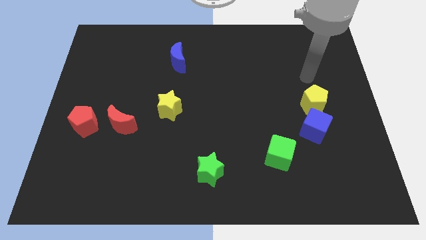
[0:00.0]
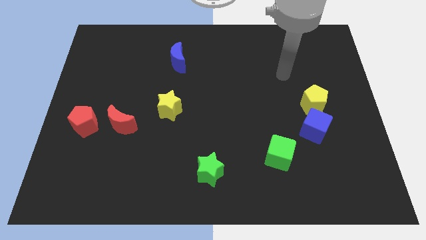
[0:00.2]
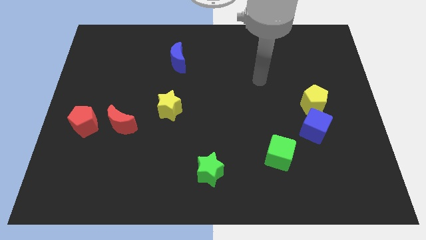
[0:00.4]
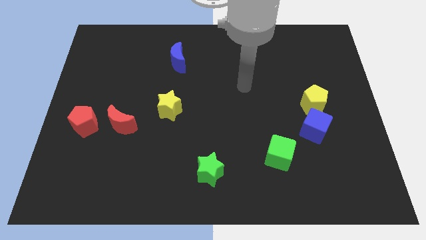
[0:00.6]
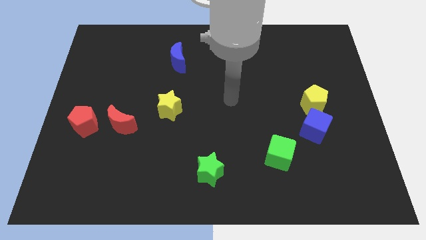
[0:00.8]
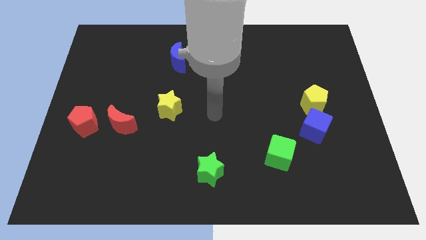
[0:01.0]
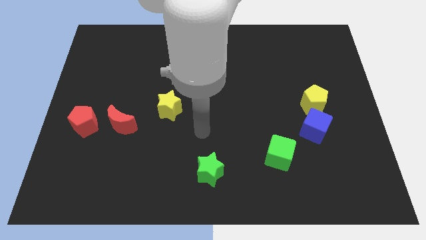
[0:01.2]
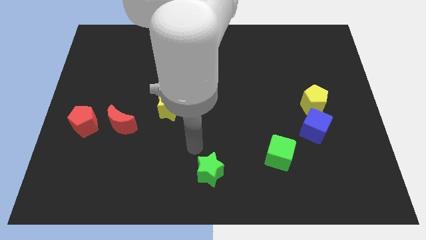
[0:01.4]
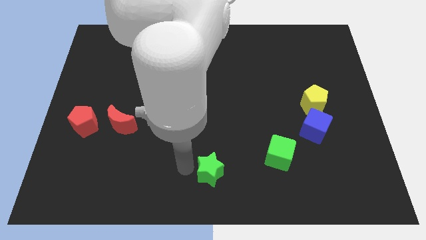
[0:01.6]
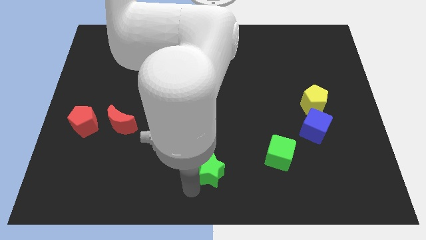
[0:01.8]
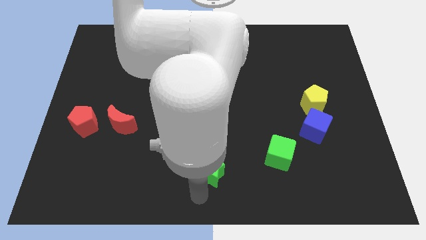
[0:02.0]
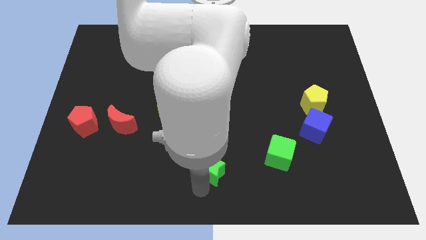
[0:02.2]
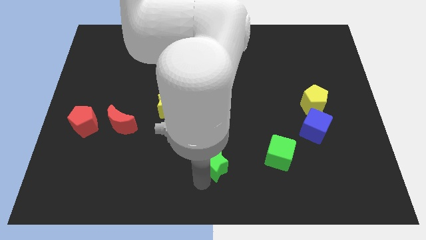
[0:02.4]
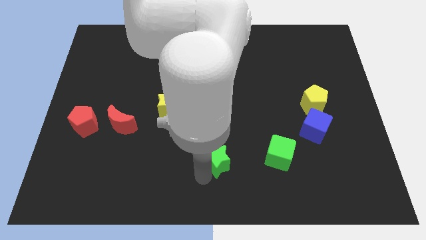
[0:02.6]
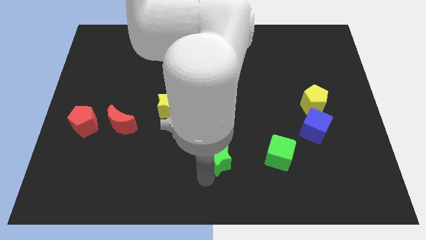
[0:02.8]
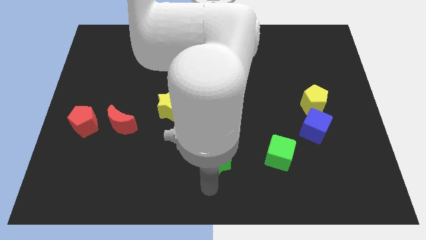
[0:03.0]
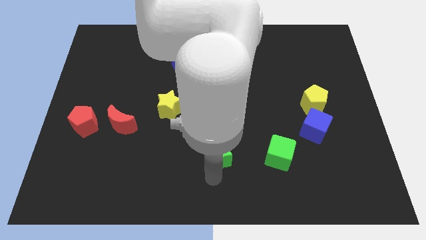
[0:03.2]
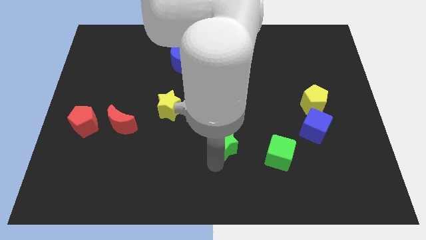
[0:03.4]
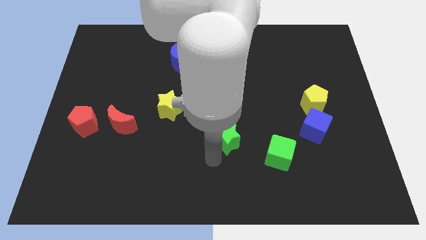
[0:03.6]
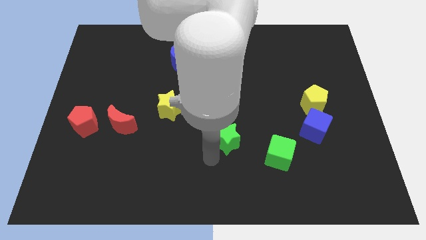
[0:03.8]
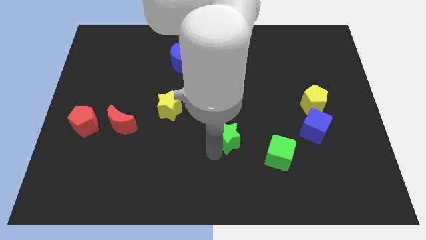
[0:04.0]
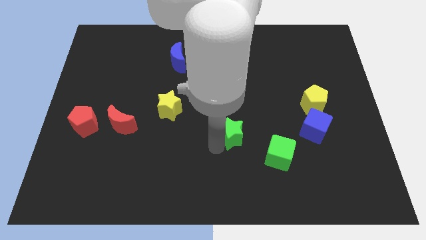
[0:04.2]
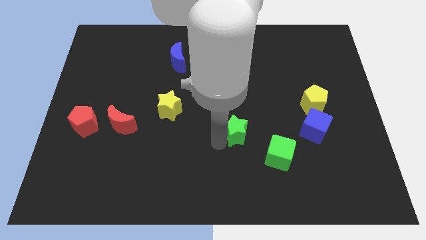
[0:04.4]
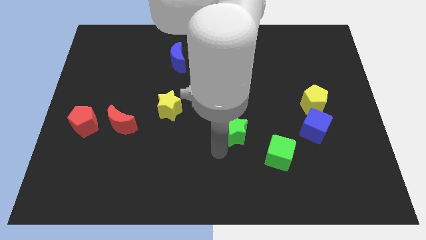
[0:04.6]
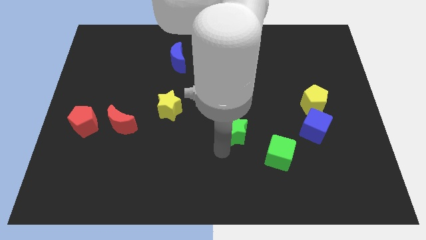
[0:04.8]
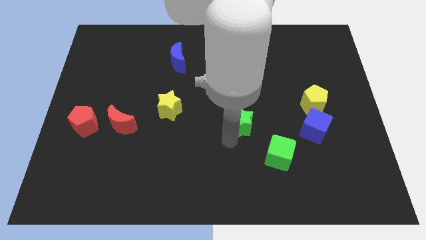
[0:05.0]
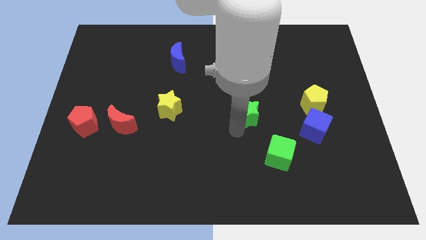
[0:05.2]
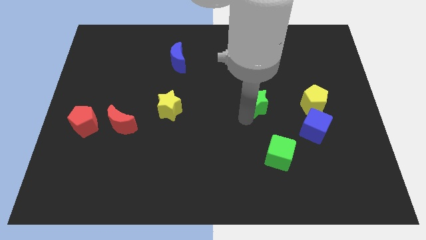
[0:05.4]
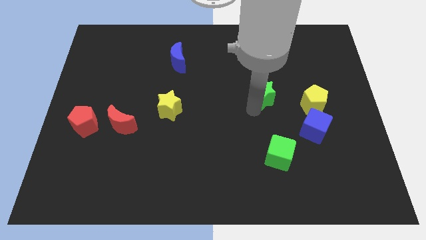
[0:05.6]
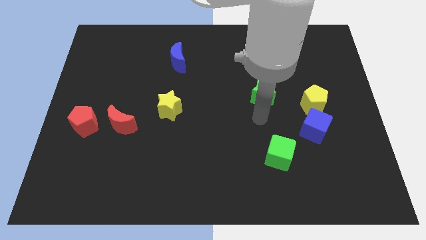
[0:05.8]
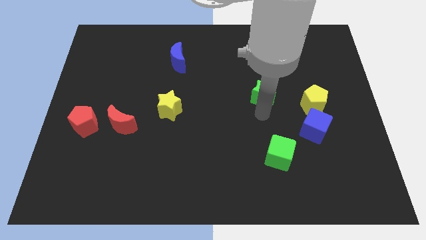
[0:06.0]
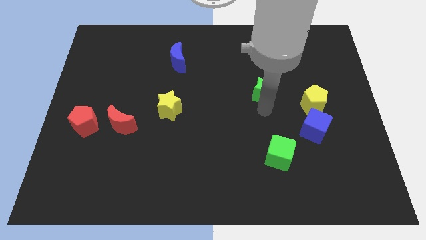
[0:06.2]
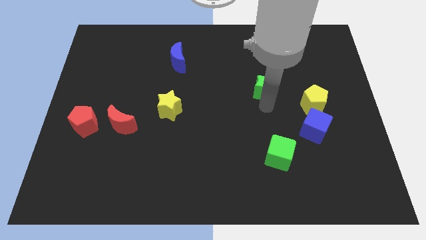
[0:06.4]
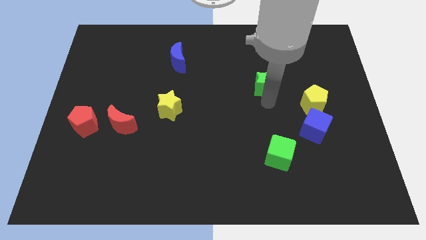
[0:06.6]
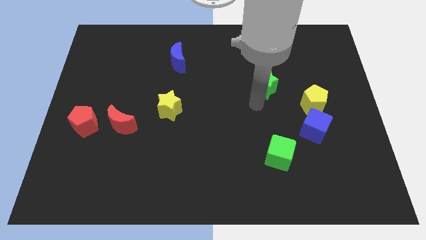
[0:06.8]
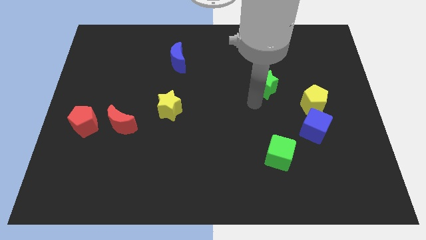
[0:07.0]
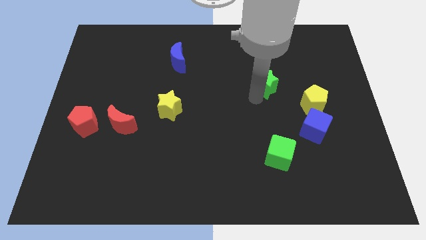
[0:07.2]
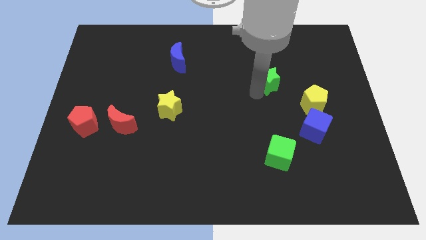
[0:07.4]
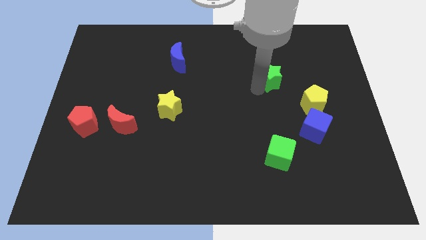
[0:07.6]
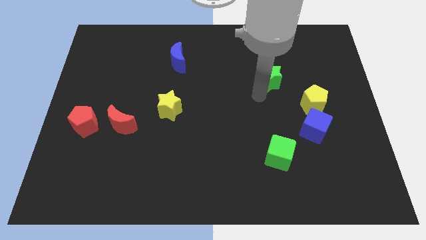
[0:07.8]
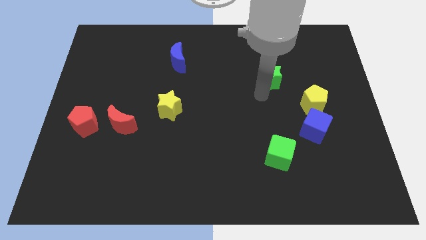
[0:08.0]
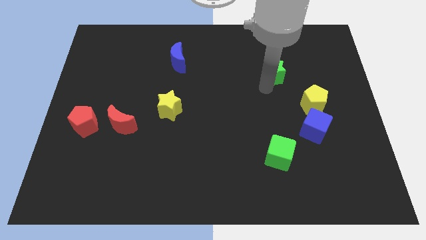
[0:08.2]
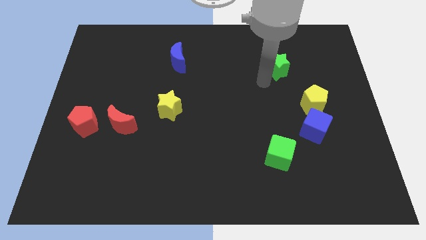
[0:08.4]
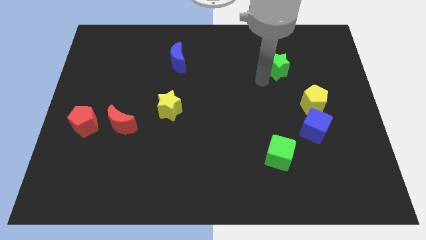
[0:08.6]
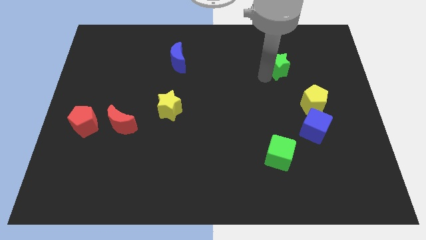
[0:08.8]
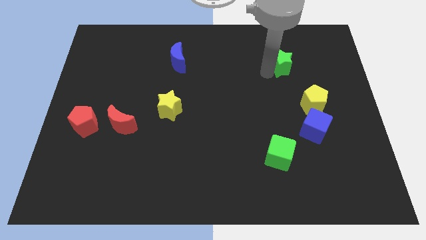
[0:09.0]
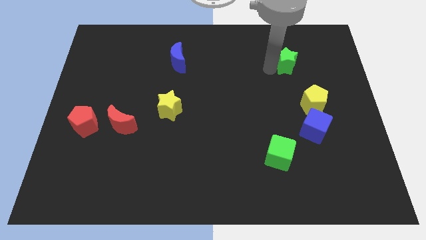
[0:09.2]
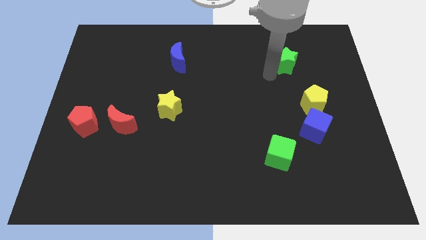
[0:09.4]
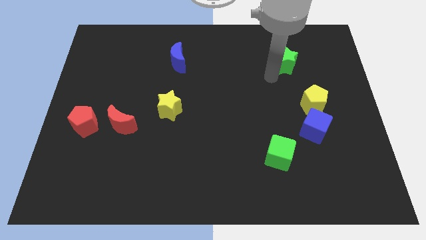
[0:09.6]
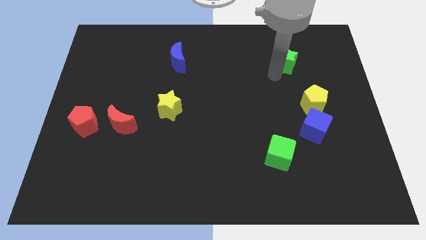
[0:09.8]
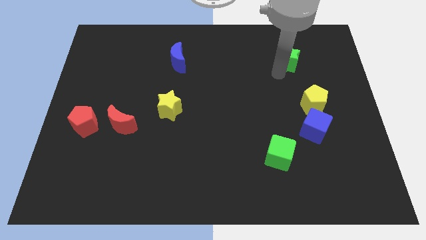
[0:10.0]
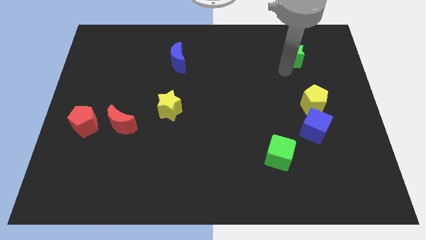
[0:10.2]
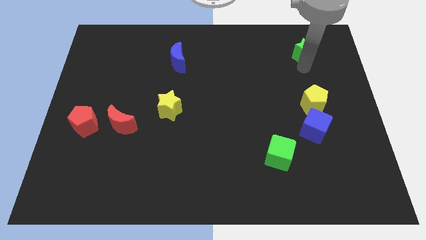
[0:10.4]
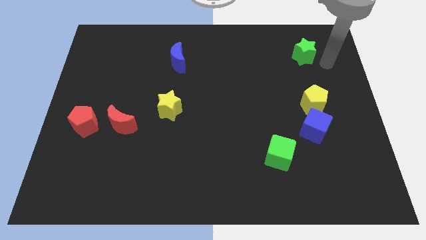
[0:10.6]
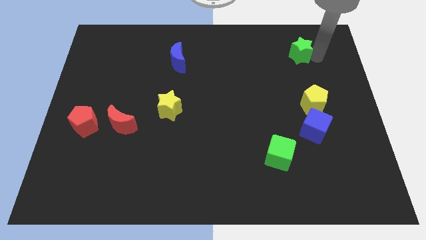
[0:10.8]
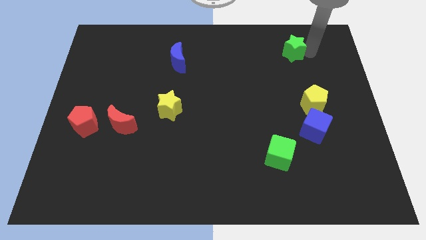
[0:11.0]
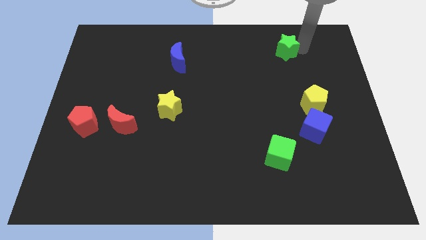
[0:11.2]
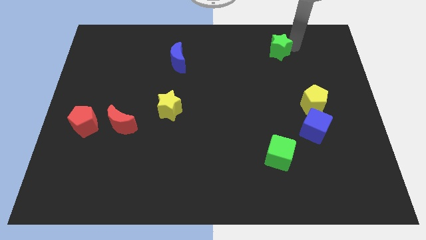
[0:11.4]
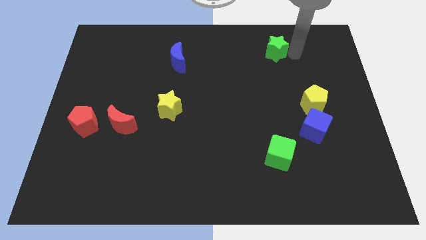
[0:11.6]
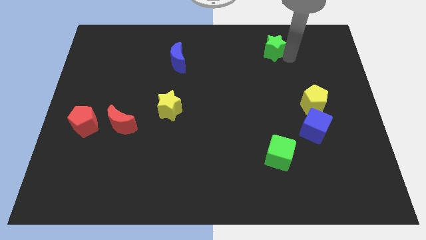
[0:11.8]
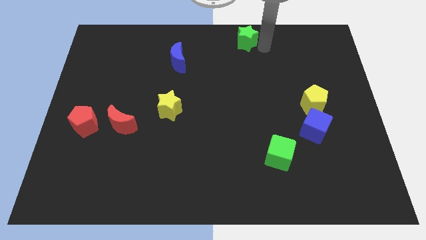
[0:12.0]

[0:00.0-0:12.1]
put the green star to the towards your base

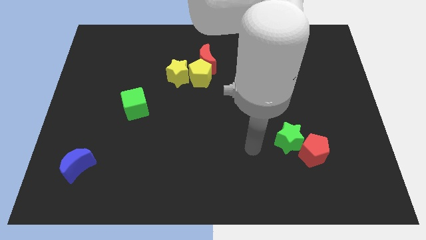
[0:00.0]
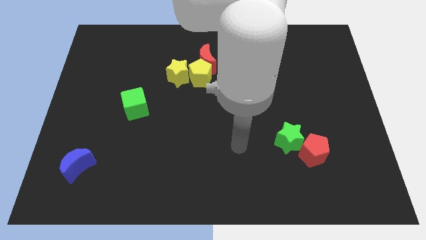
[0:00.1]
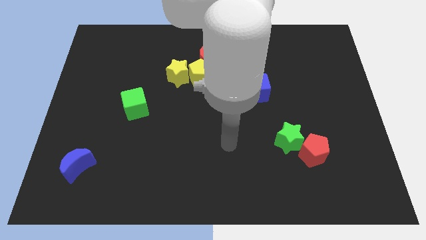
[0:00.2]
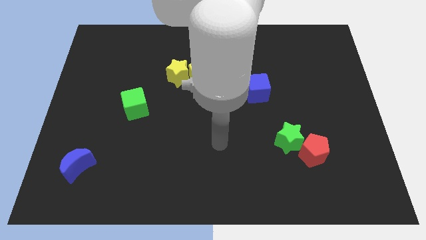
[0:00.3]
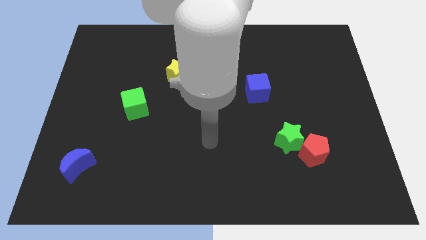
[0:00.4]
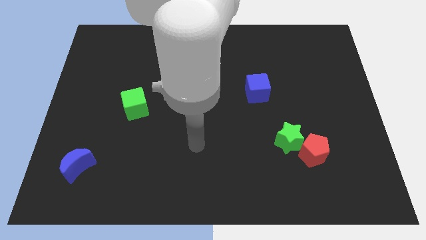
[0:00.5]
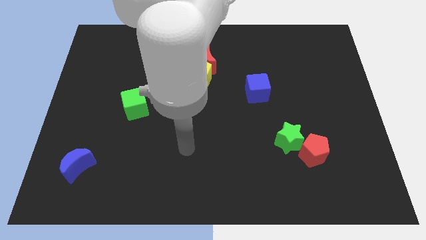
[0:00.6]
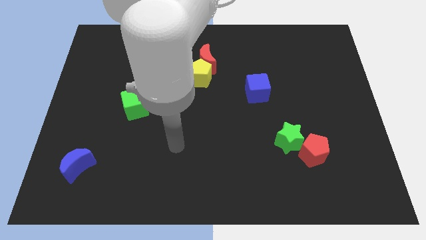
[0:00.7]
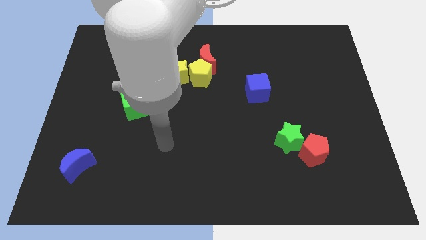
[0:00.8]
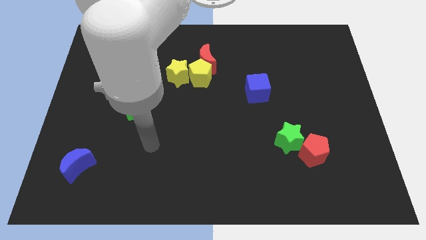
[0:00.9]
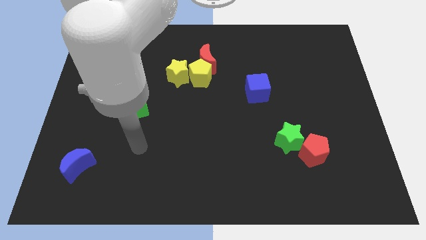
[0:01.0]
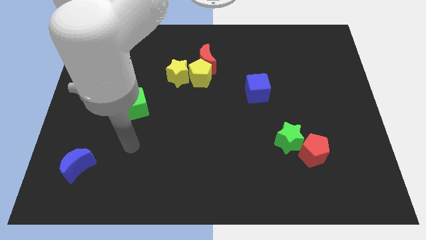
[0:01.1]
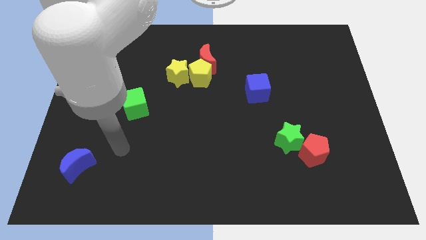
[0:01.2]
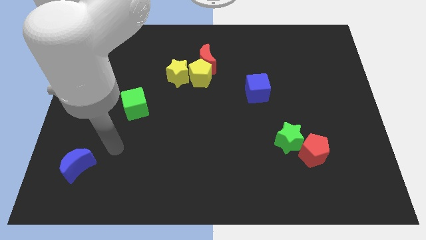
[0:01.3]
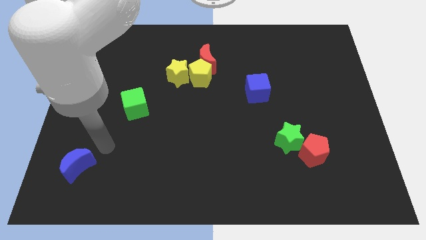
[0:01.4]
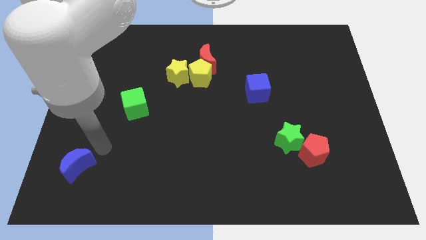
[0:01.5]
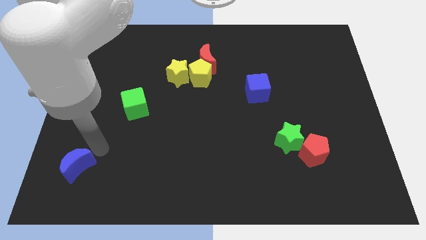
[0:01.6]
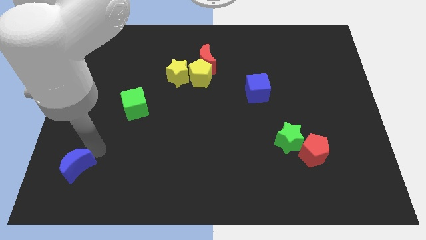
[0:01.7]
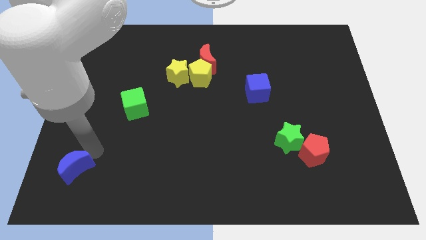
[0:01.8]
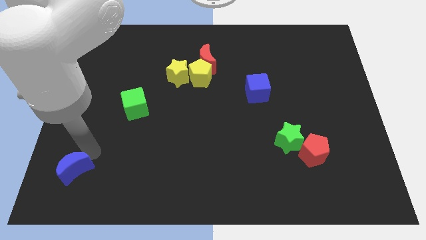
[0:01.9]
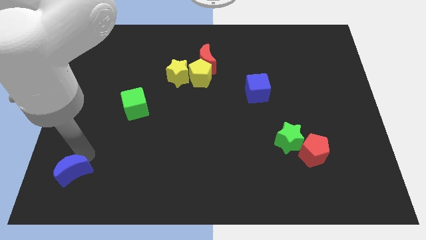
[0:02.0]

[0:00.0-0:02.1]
move the blue moon to the bottom left
